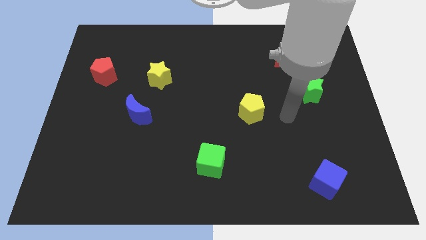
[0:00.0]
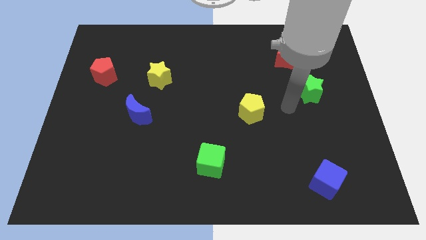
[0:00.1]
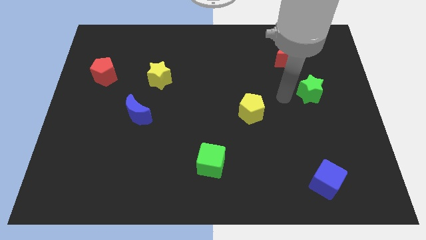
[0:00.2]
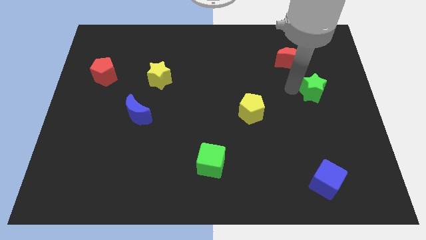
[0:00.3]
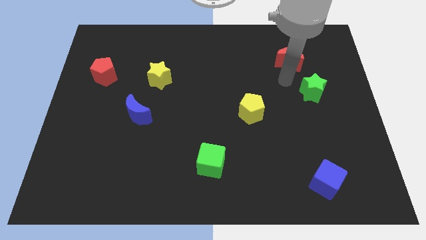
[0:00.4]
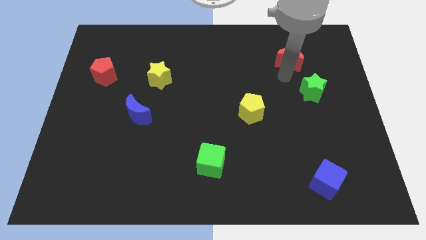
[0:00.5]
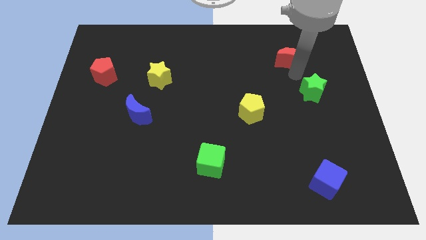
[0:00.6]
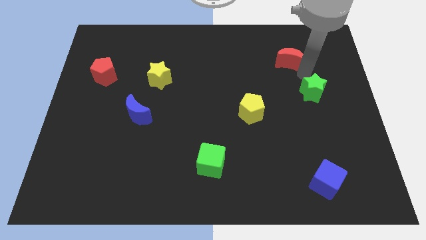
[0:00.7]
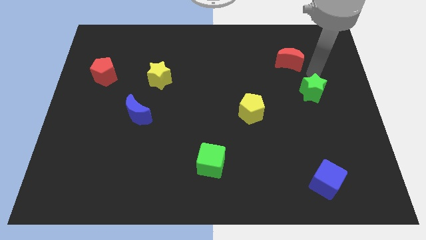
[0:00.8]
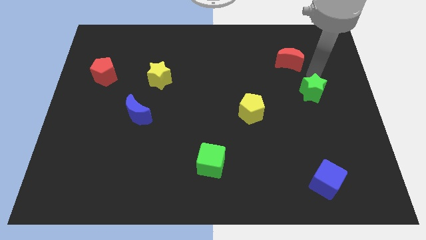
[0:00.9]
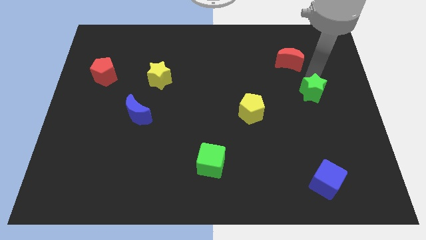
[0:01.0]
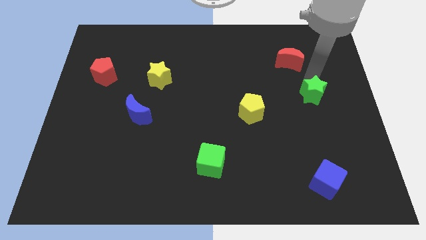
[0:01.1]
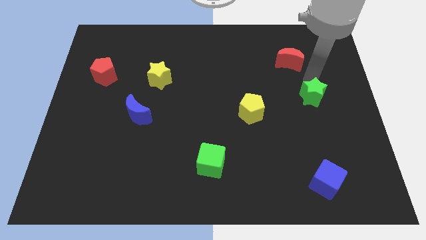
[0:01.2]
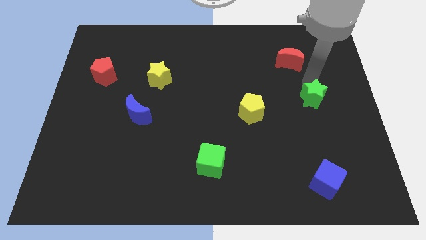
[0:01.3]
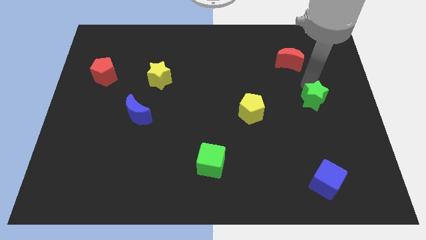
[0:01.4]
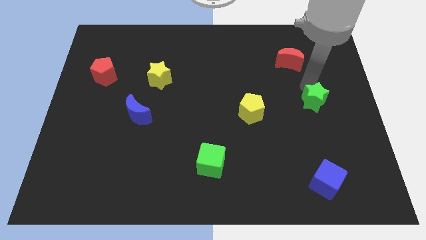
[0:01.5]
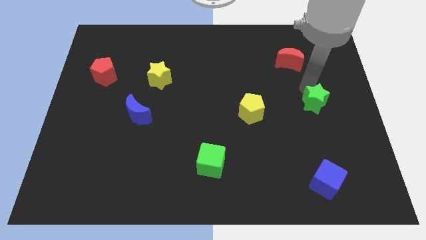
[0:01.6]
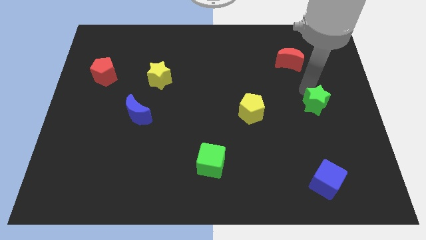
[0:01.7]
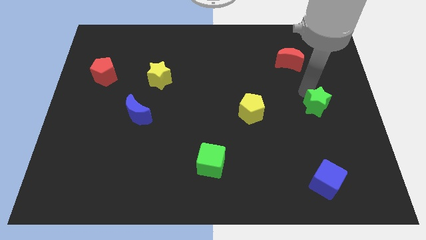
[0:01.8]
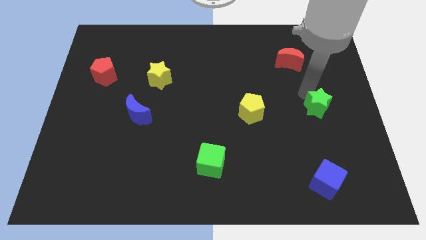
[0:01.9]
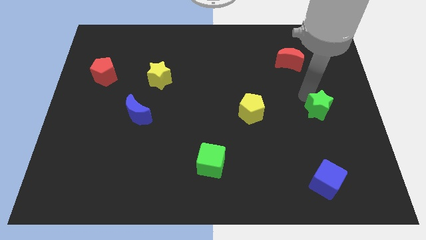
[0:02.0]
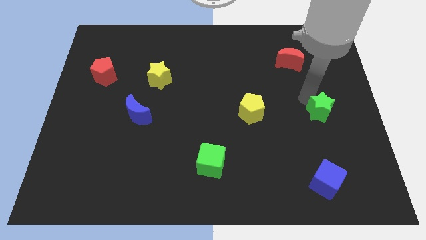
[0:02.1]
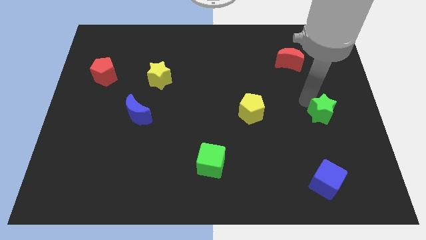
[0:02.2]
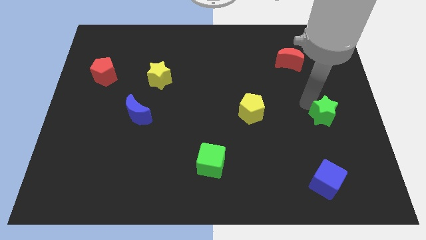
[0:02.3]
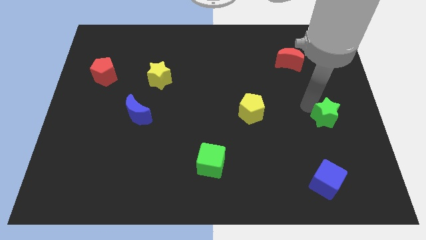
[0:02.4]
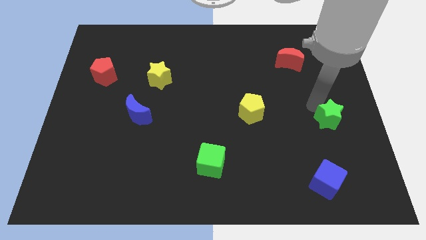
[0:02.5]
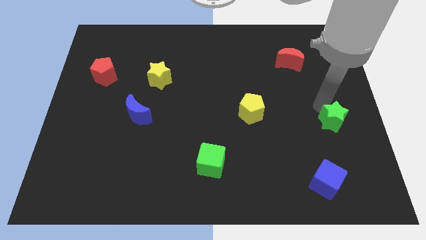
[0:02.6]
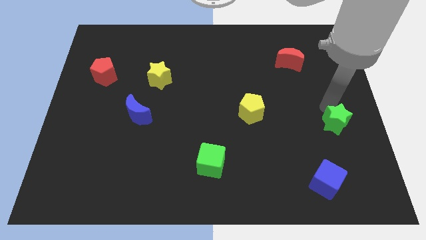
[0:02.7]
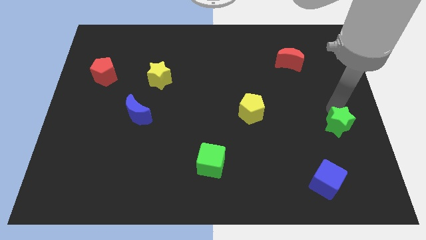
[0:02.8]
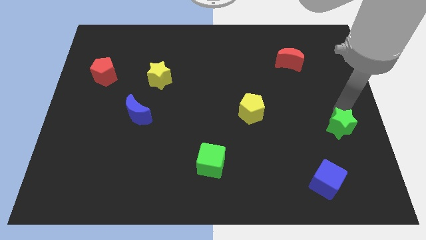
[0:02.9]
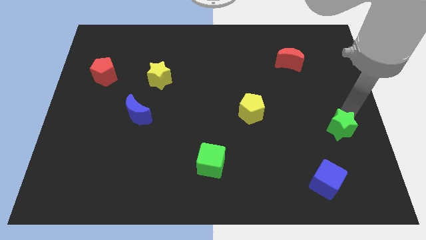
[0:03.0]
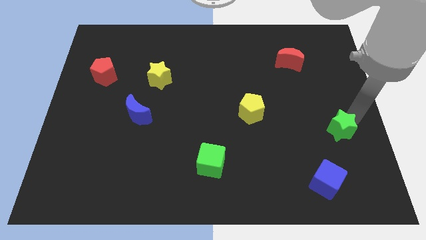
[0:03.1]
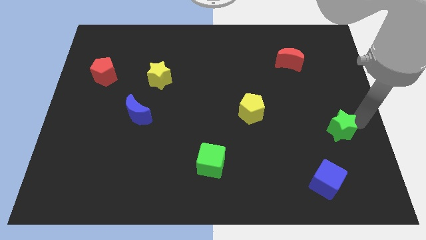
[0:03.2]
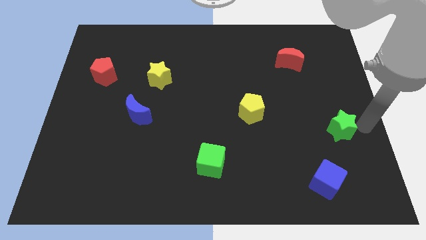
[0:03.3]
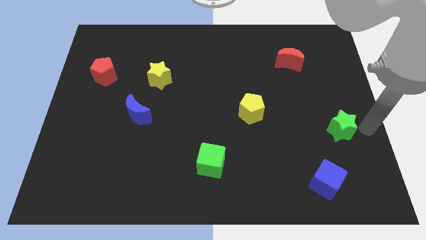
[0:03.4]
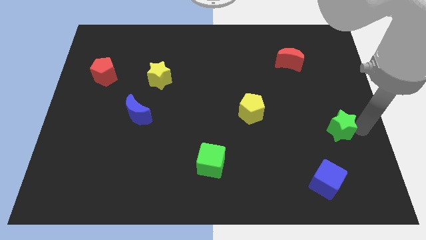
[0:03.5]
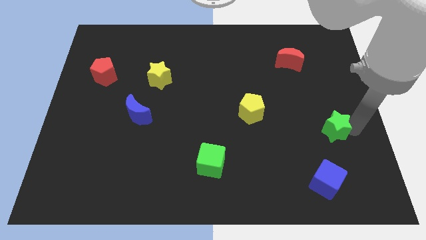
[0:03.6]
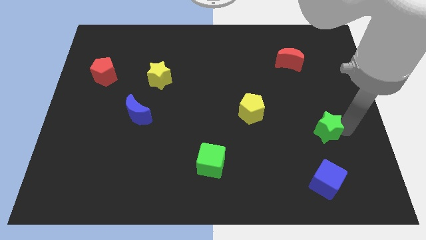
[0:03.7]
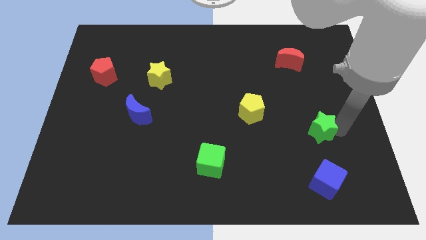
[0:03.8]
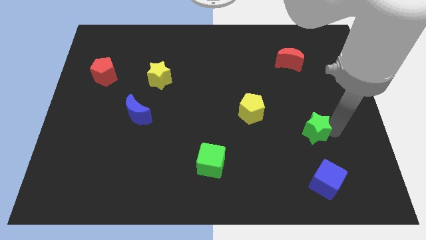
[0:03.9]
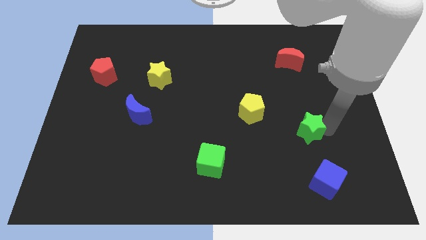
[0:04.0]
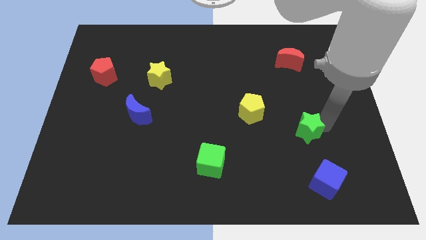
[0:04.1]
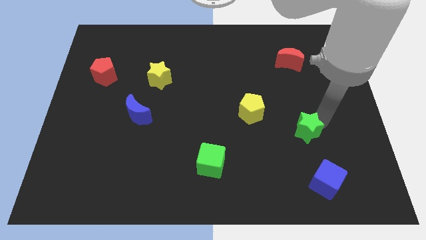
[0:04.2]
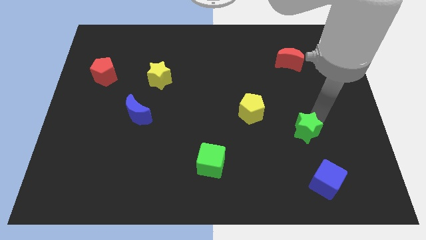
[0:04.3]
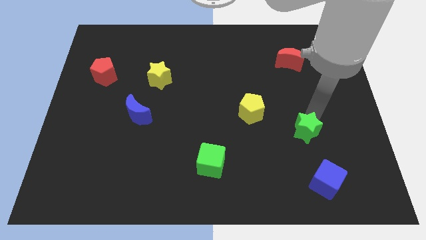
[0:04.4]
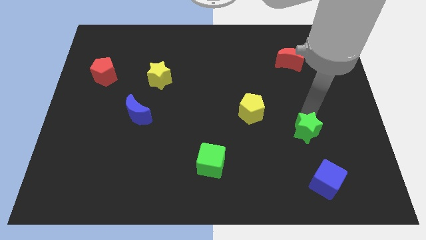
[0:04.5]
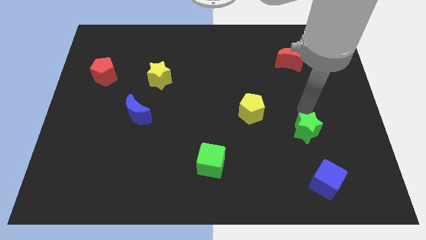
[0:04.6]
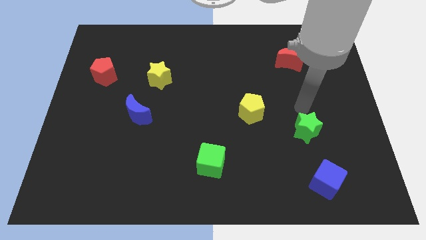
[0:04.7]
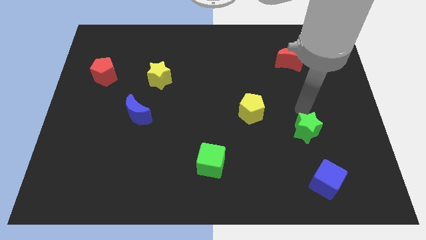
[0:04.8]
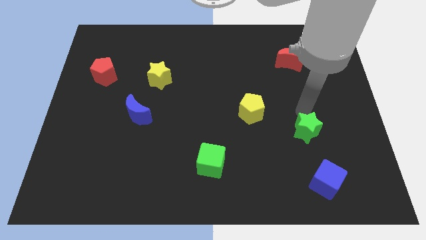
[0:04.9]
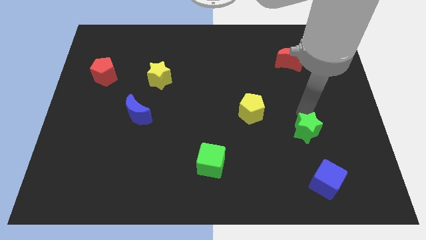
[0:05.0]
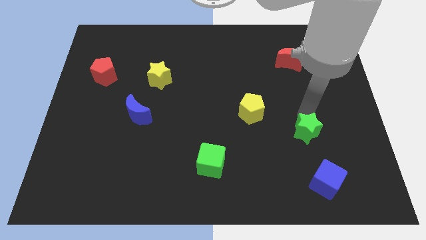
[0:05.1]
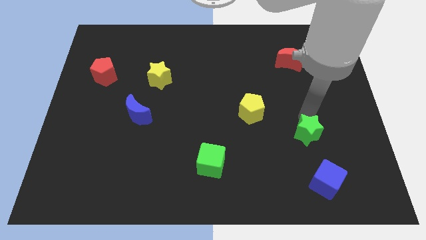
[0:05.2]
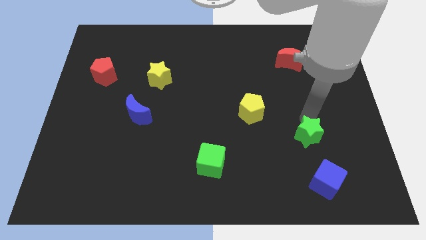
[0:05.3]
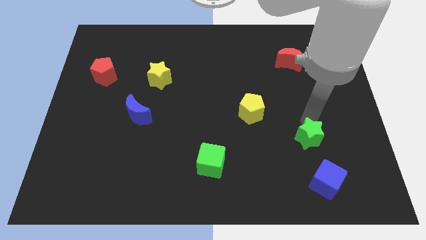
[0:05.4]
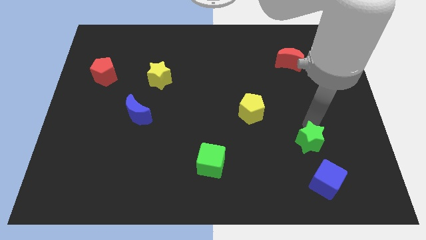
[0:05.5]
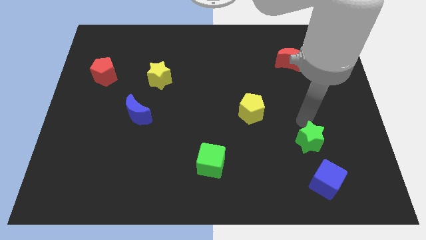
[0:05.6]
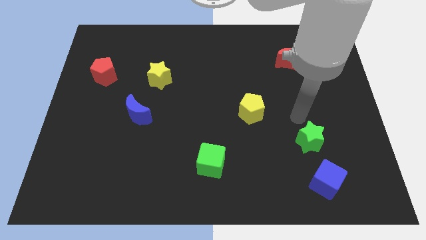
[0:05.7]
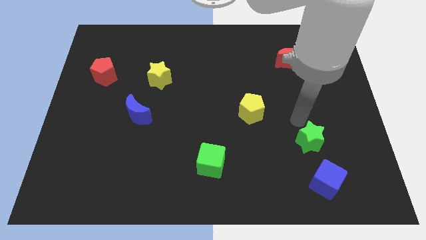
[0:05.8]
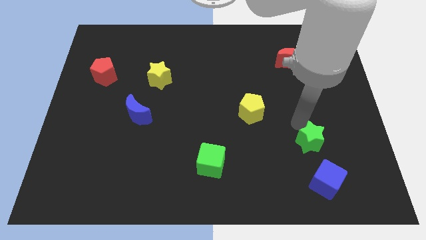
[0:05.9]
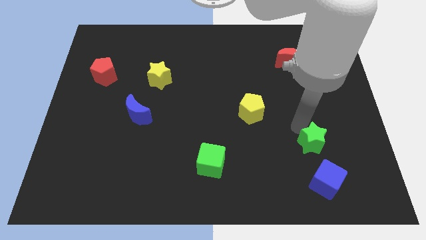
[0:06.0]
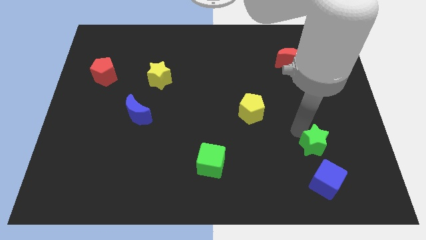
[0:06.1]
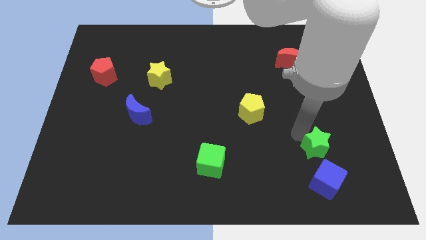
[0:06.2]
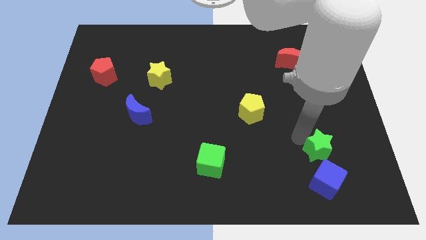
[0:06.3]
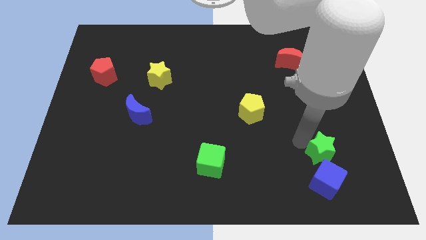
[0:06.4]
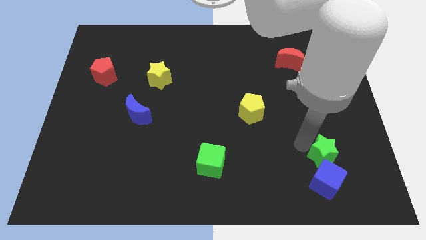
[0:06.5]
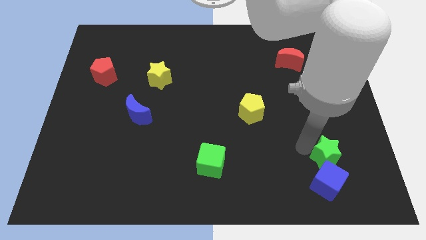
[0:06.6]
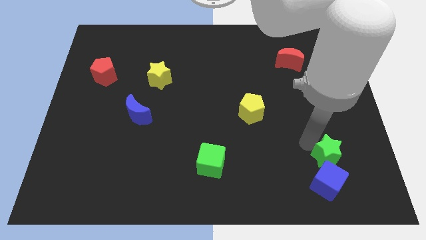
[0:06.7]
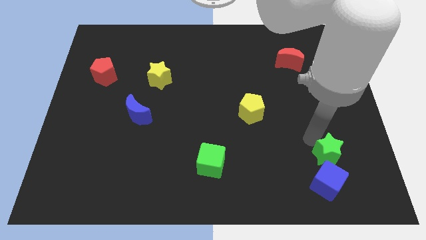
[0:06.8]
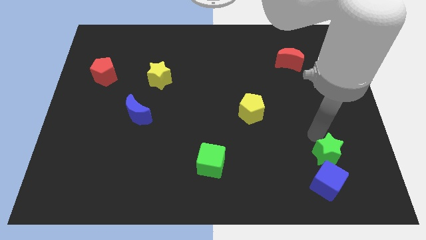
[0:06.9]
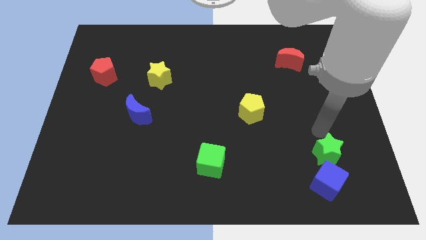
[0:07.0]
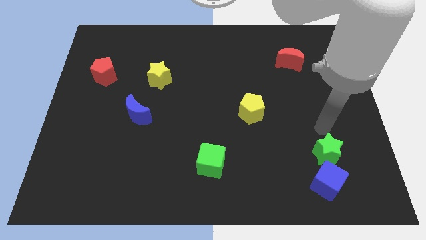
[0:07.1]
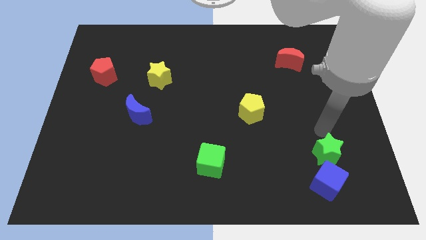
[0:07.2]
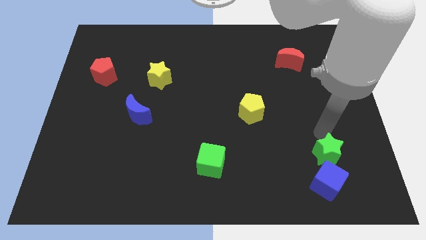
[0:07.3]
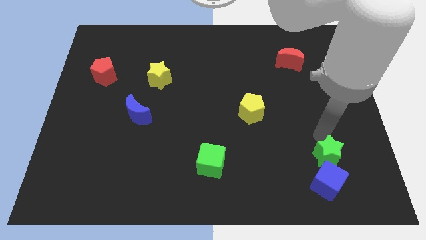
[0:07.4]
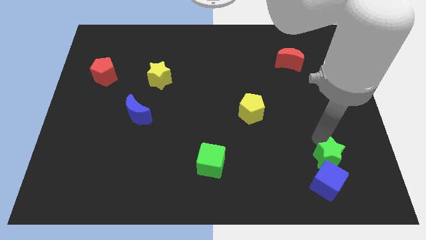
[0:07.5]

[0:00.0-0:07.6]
slide the green star next to the blue cube
